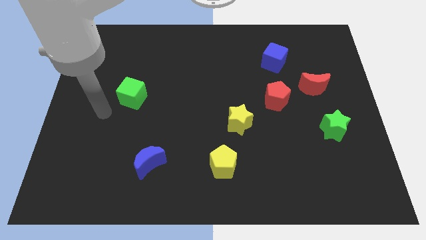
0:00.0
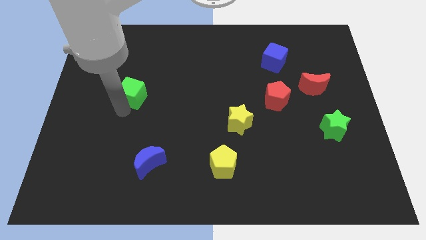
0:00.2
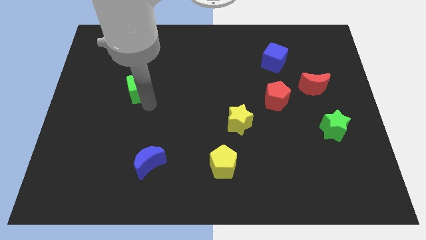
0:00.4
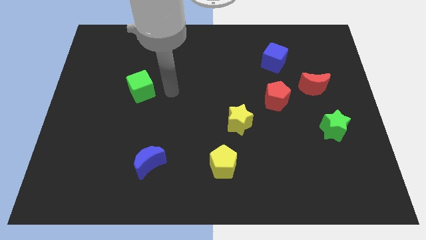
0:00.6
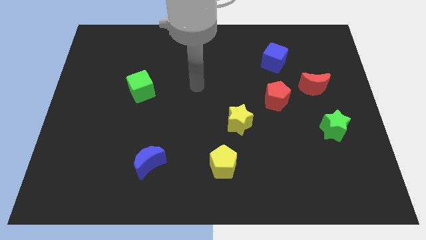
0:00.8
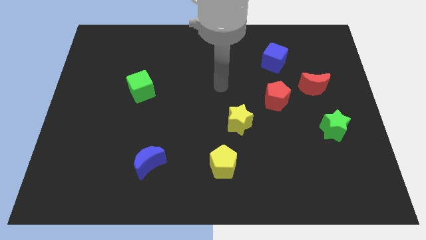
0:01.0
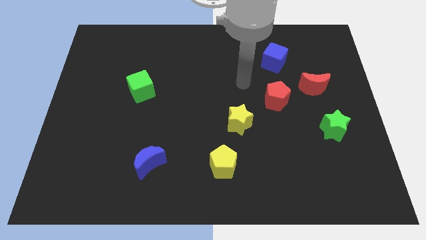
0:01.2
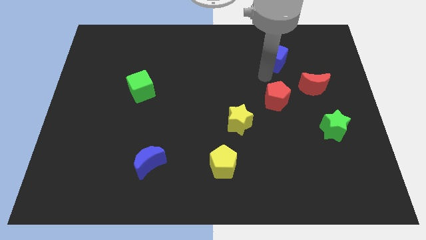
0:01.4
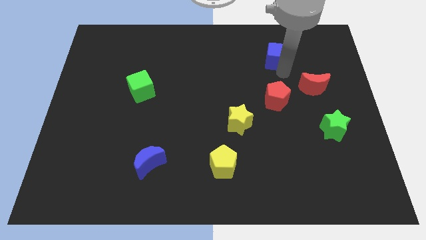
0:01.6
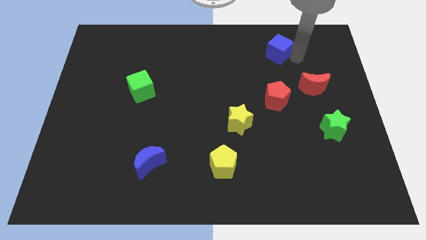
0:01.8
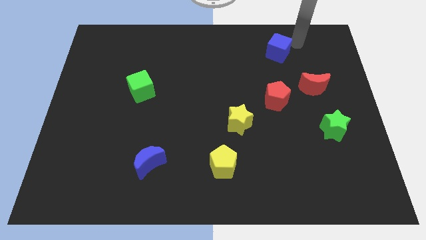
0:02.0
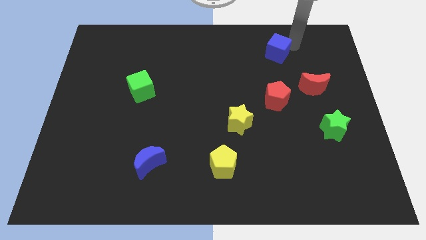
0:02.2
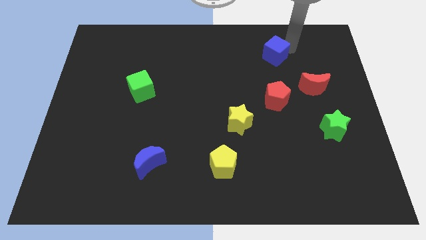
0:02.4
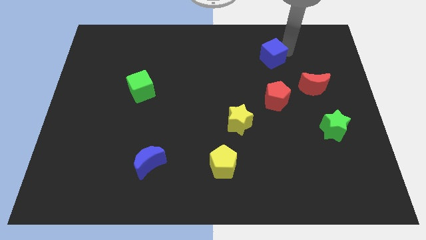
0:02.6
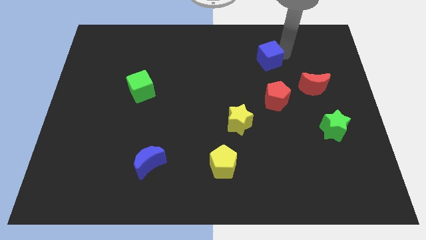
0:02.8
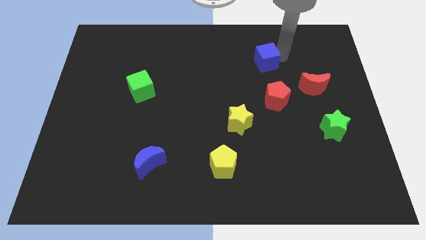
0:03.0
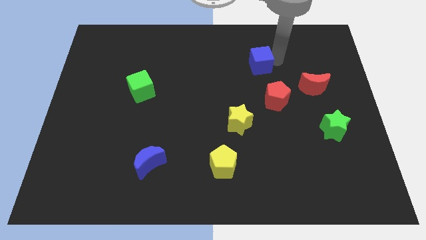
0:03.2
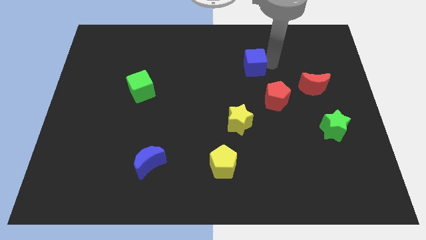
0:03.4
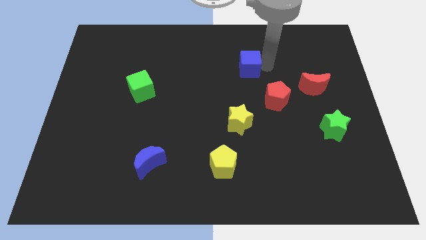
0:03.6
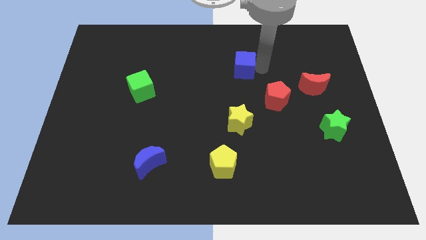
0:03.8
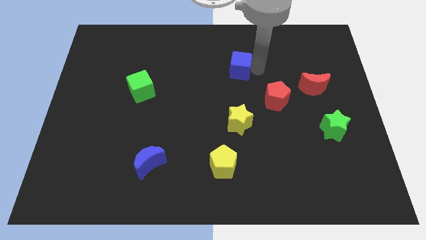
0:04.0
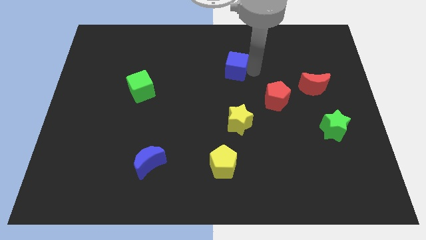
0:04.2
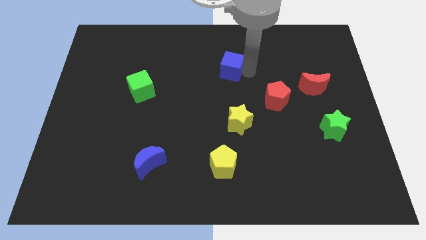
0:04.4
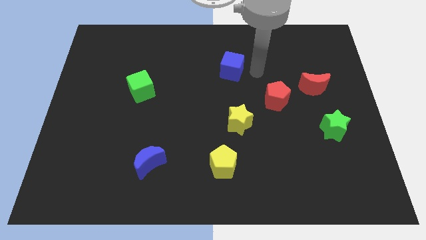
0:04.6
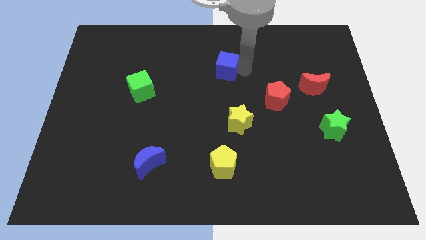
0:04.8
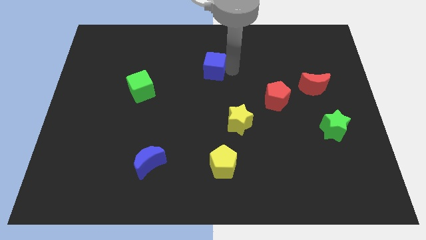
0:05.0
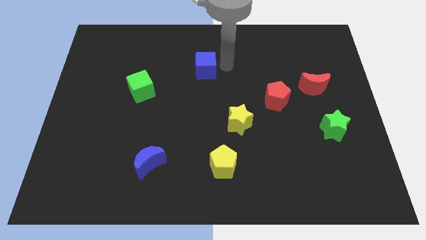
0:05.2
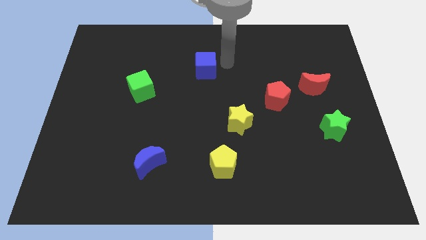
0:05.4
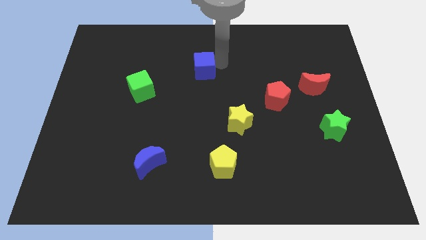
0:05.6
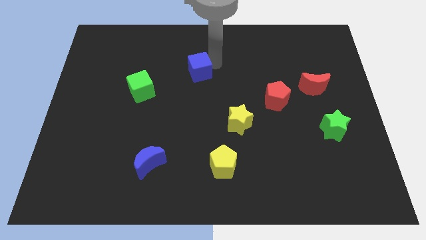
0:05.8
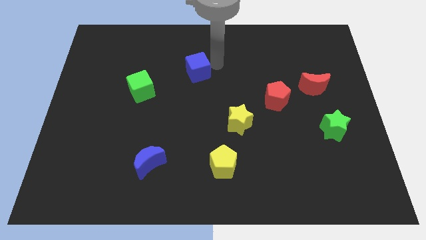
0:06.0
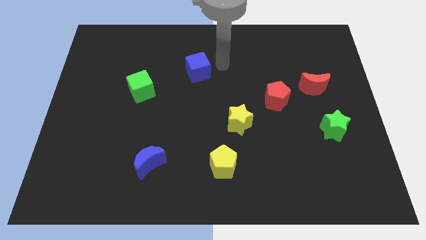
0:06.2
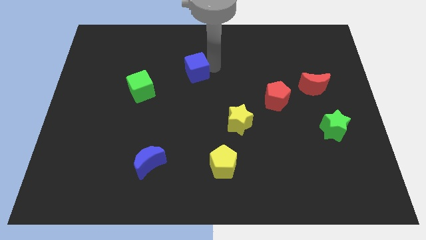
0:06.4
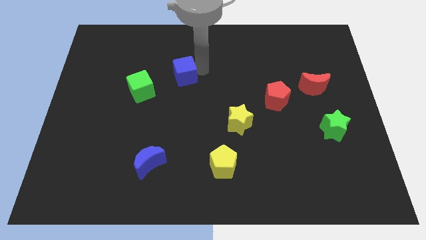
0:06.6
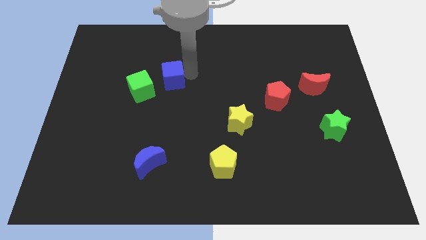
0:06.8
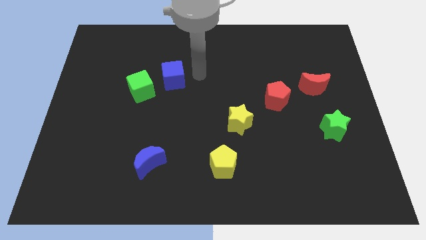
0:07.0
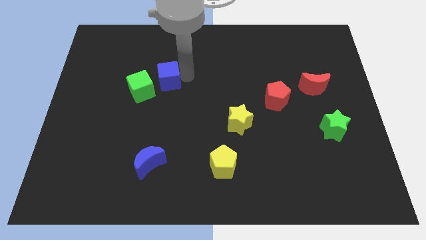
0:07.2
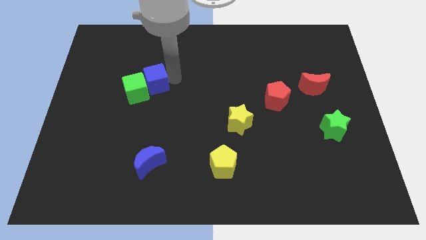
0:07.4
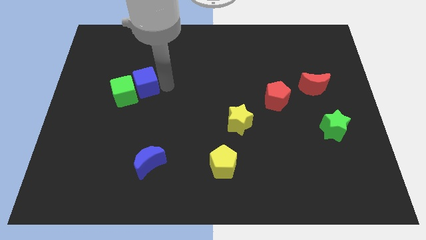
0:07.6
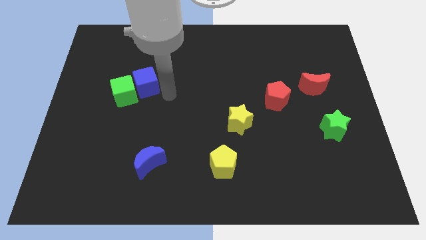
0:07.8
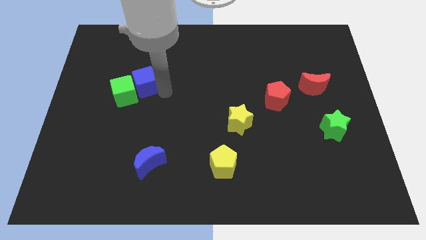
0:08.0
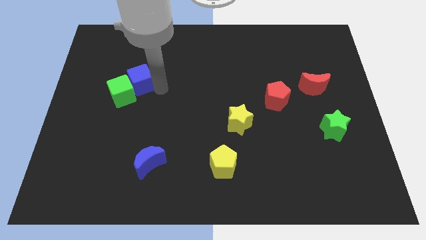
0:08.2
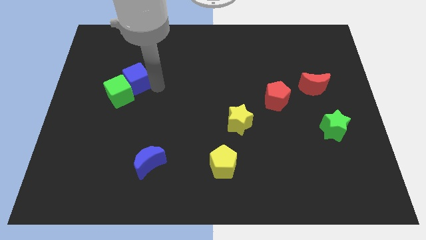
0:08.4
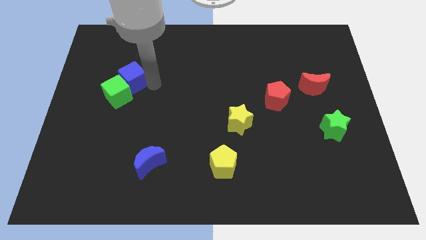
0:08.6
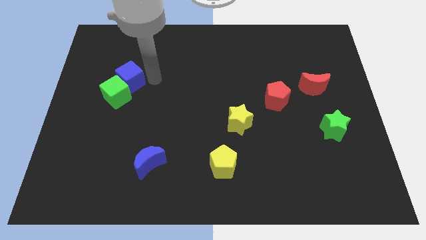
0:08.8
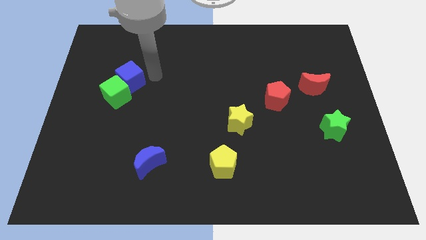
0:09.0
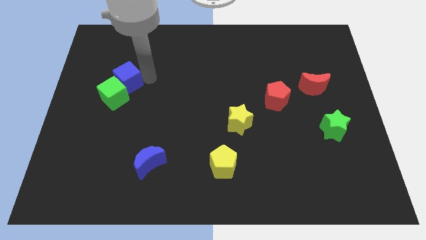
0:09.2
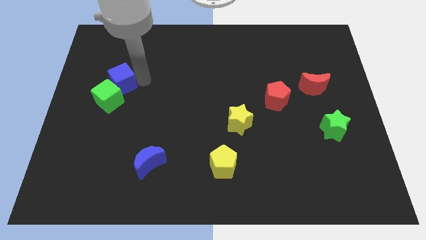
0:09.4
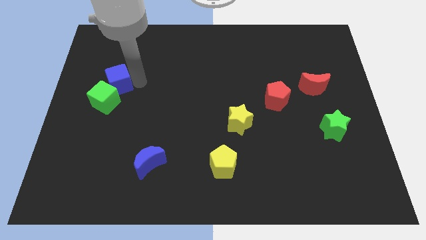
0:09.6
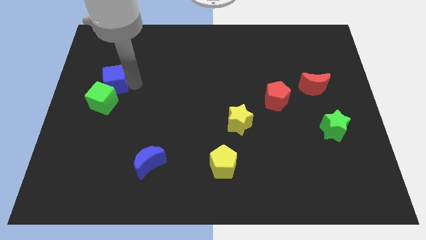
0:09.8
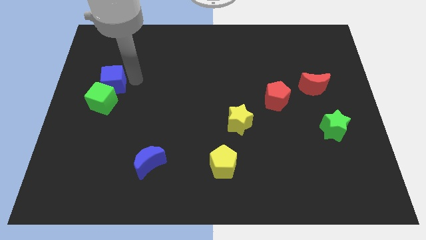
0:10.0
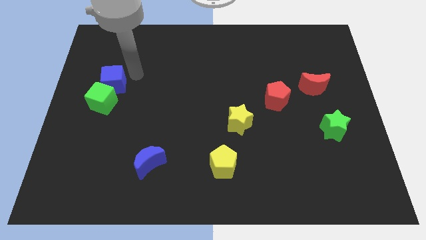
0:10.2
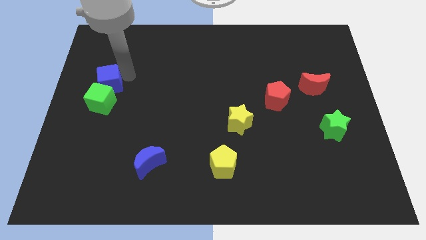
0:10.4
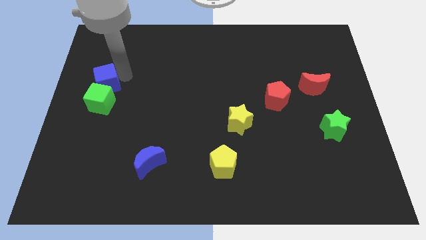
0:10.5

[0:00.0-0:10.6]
slide the blue cube to the left side

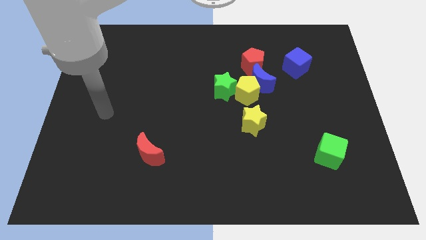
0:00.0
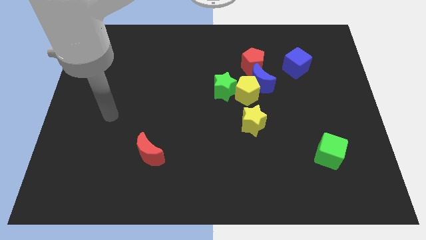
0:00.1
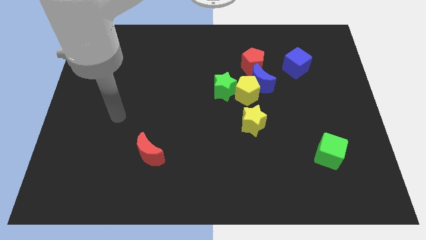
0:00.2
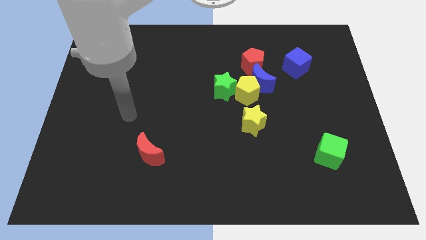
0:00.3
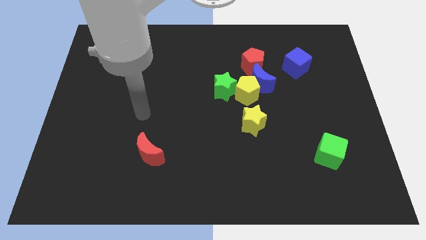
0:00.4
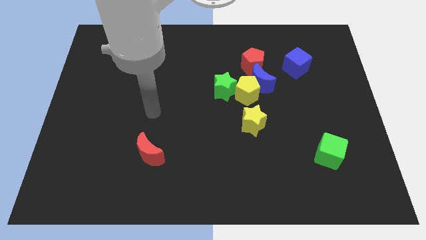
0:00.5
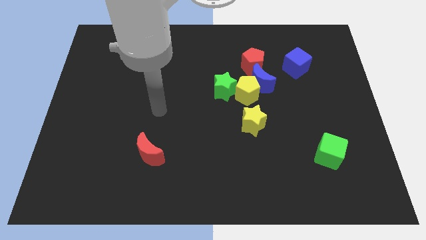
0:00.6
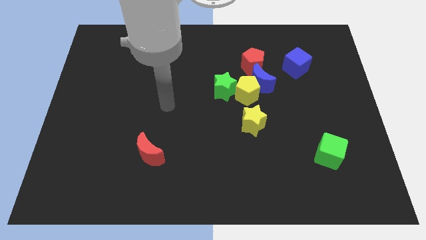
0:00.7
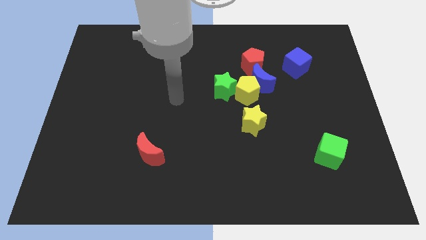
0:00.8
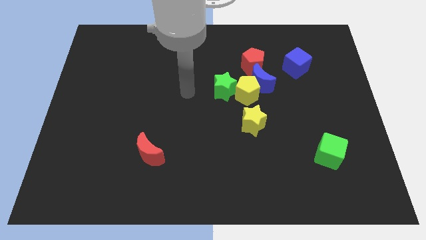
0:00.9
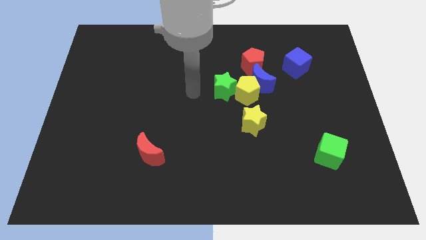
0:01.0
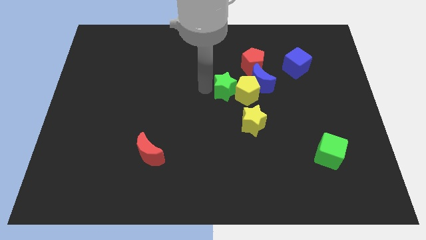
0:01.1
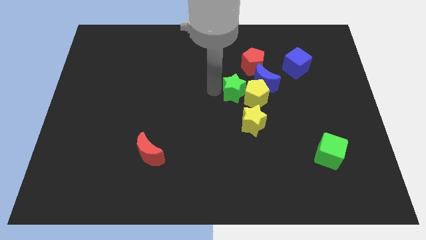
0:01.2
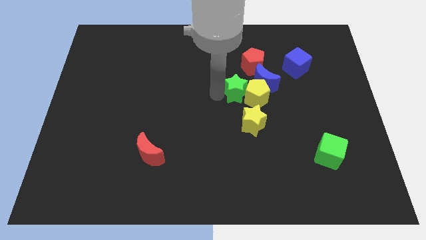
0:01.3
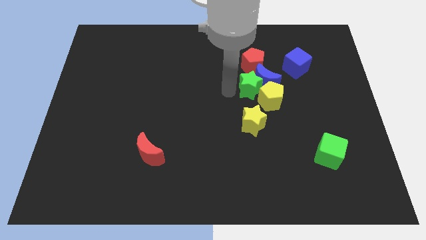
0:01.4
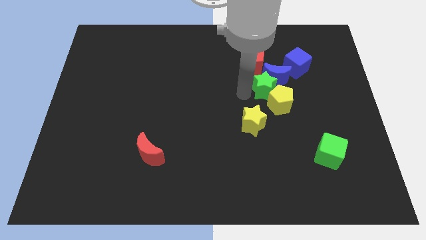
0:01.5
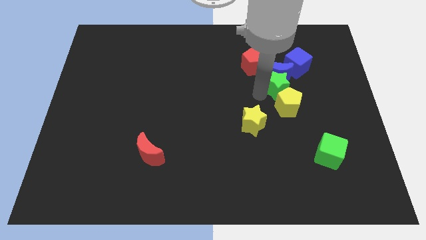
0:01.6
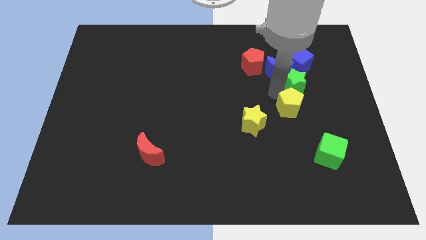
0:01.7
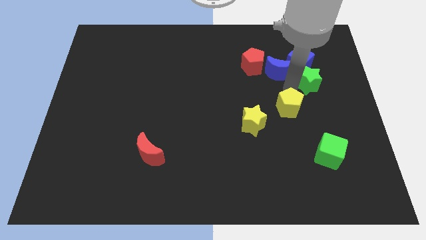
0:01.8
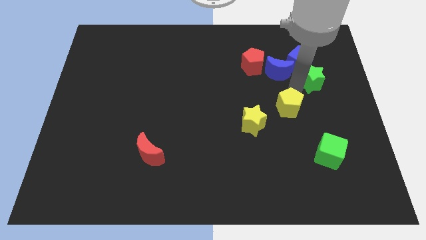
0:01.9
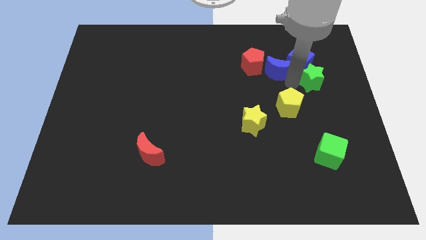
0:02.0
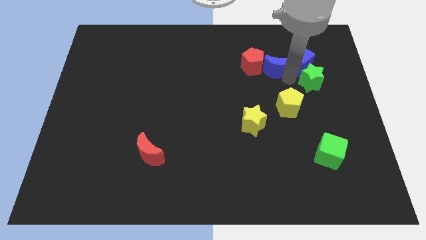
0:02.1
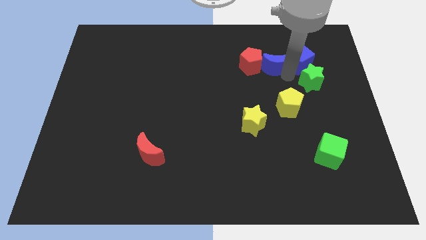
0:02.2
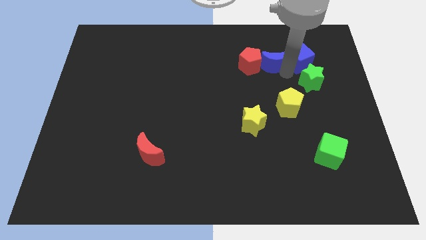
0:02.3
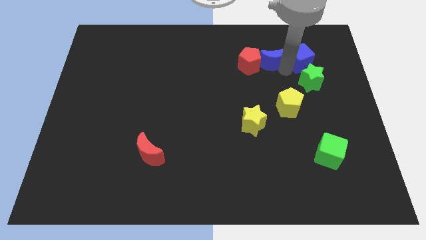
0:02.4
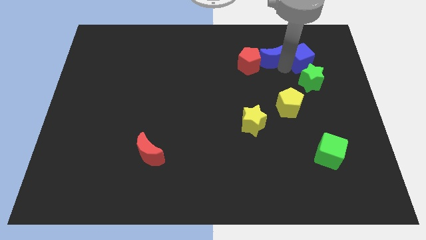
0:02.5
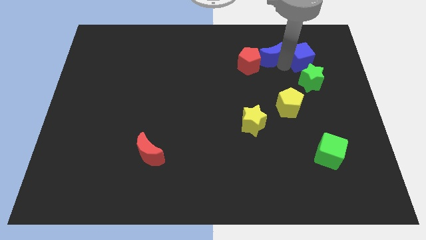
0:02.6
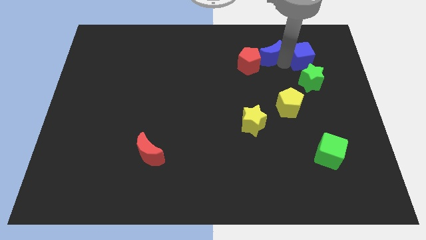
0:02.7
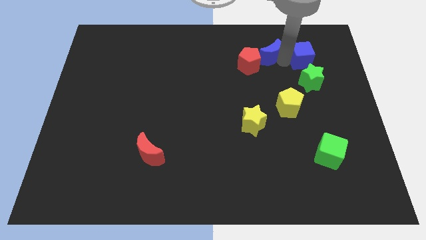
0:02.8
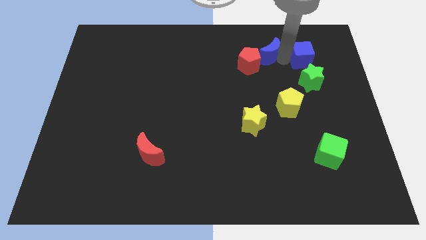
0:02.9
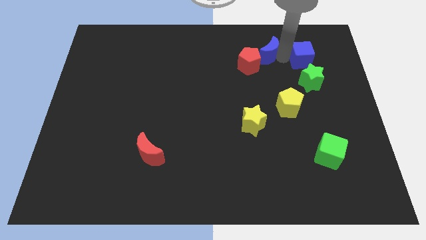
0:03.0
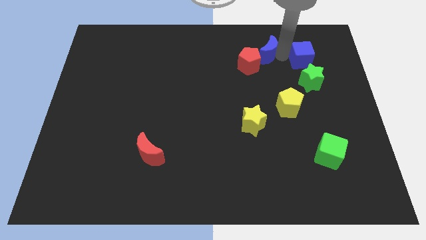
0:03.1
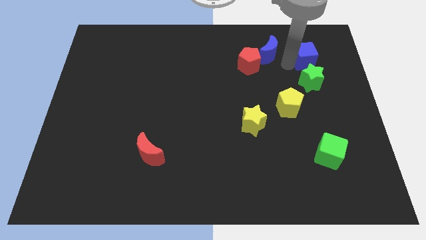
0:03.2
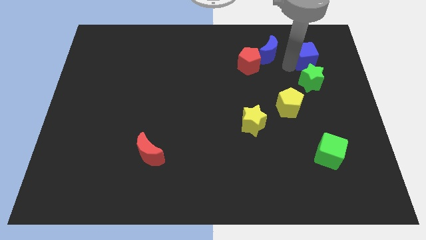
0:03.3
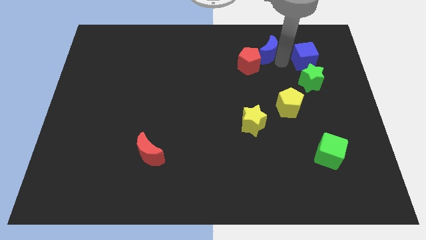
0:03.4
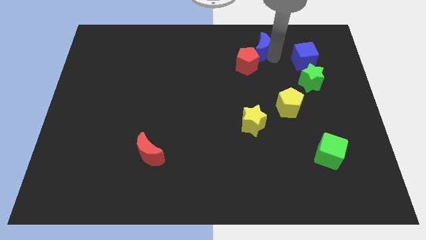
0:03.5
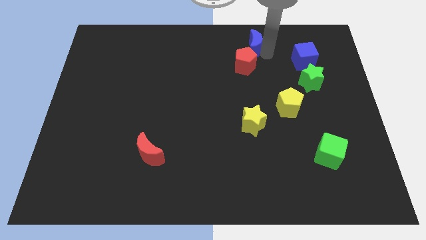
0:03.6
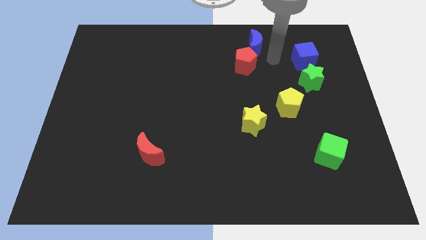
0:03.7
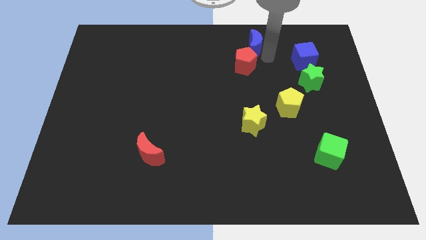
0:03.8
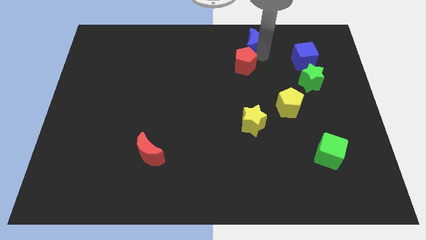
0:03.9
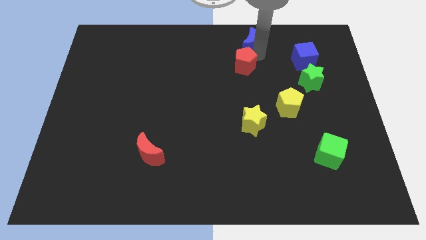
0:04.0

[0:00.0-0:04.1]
move the blue moon to the top
